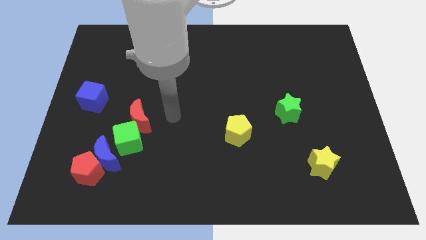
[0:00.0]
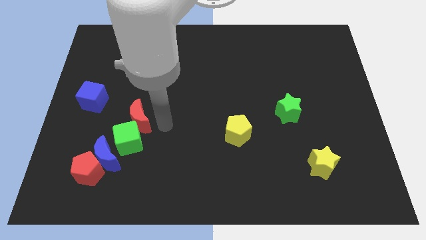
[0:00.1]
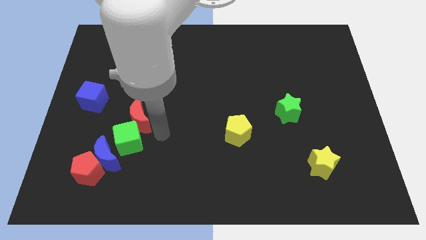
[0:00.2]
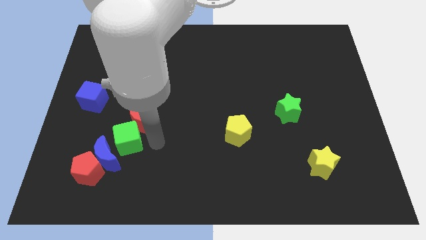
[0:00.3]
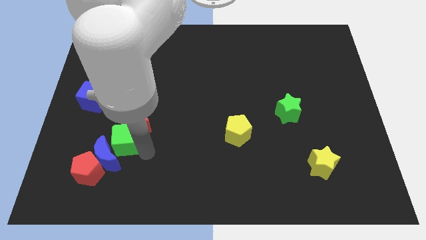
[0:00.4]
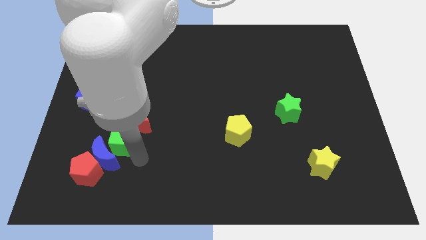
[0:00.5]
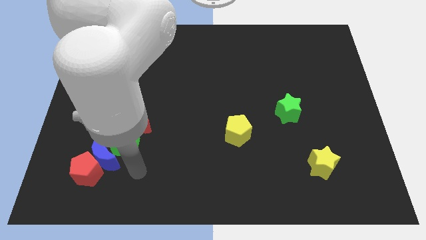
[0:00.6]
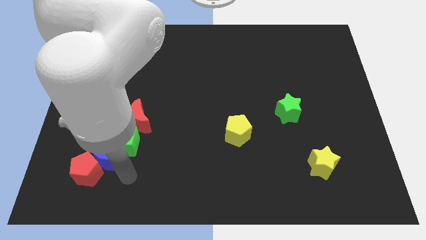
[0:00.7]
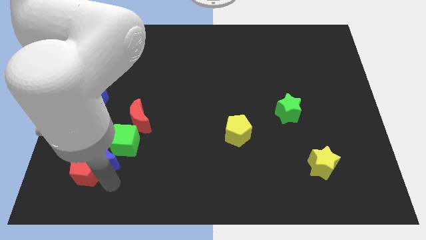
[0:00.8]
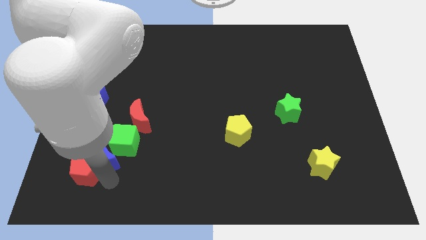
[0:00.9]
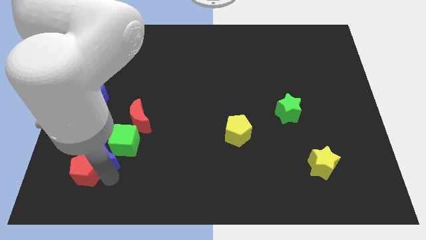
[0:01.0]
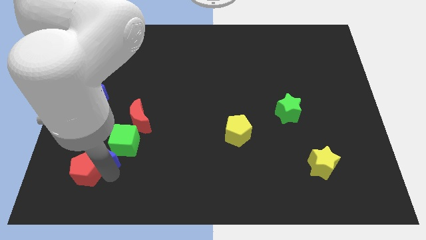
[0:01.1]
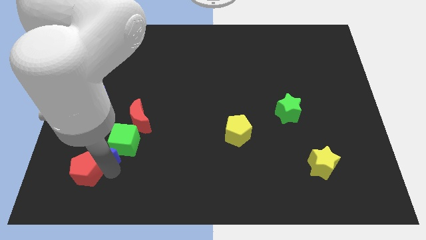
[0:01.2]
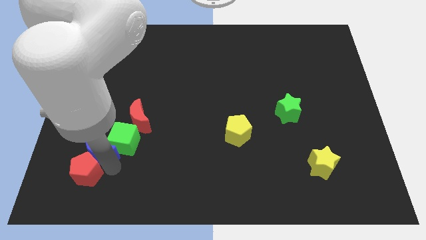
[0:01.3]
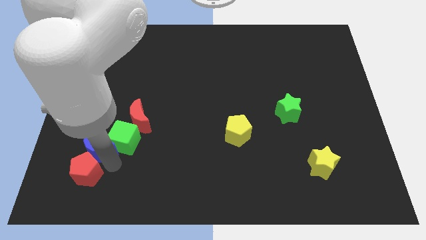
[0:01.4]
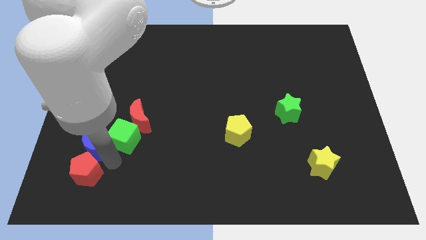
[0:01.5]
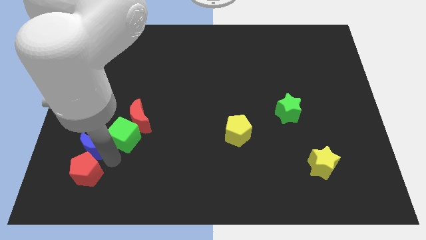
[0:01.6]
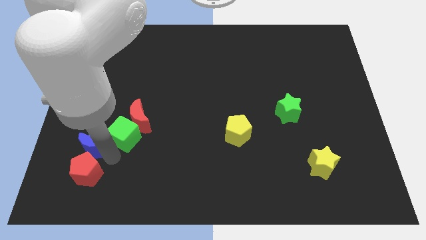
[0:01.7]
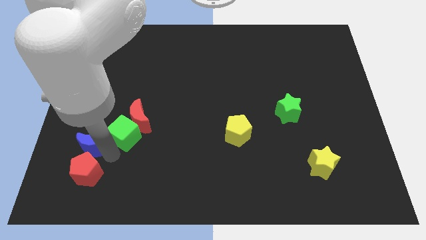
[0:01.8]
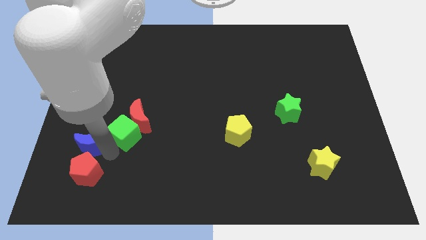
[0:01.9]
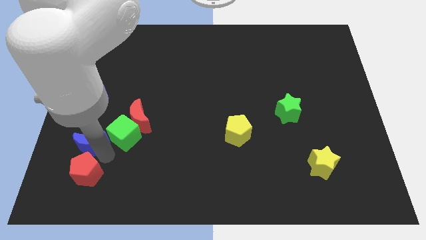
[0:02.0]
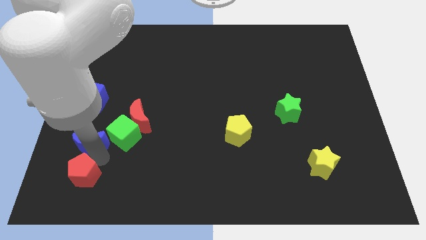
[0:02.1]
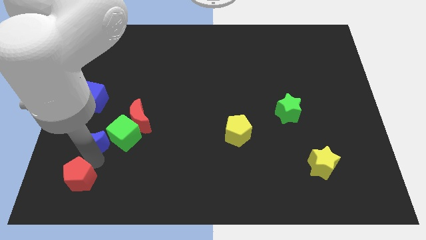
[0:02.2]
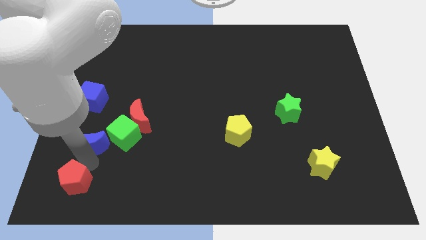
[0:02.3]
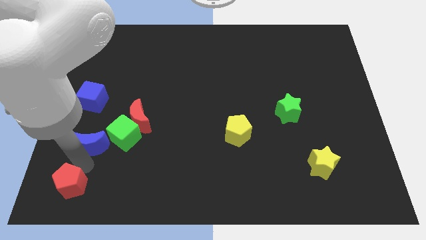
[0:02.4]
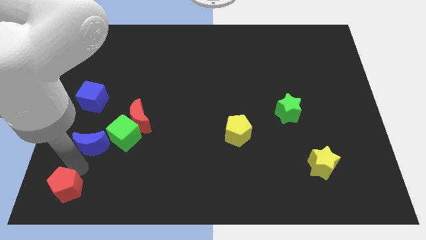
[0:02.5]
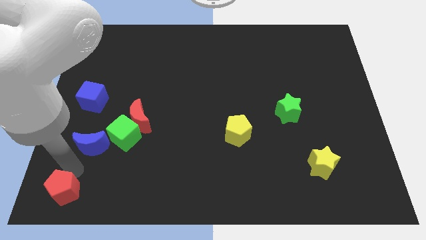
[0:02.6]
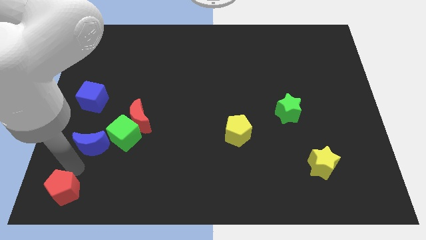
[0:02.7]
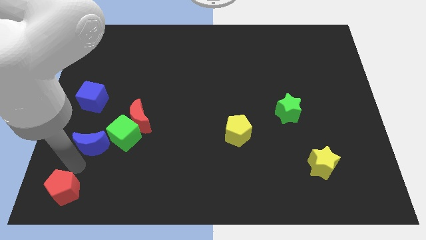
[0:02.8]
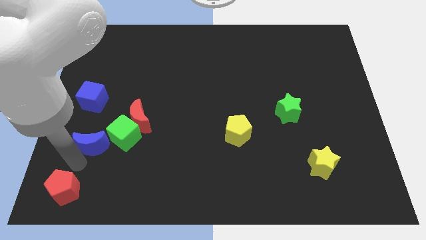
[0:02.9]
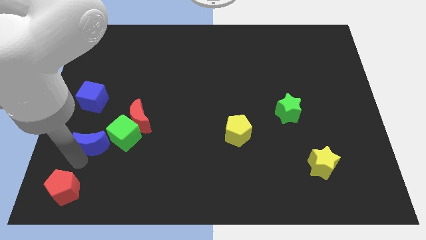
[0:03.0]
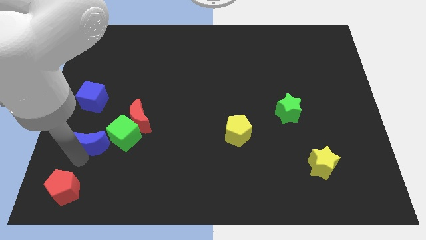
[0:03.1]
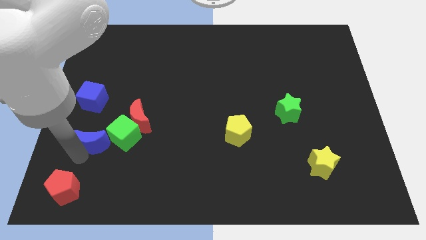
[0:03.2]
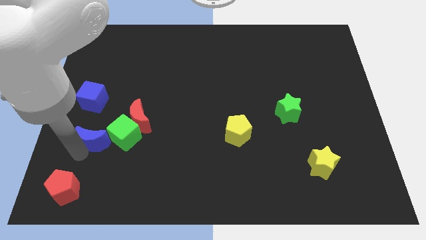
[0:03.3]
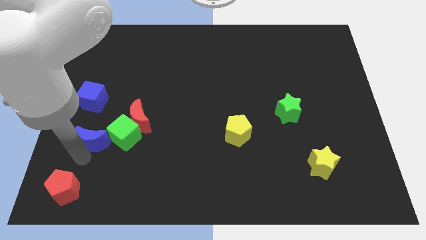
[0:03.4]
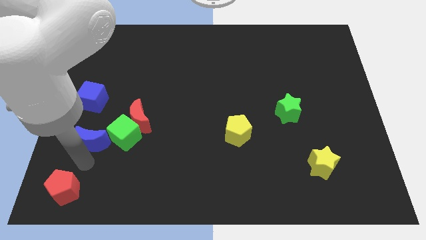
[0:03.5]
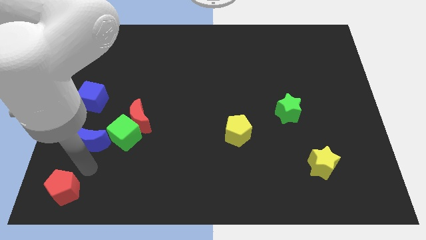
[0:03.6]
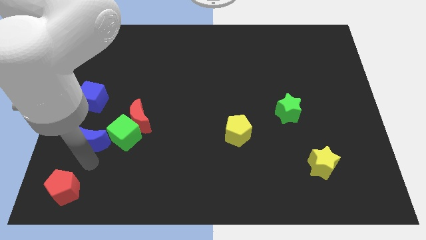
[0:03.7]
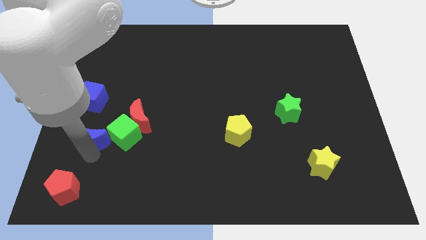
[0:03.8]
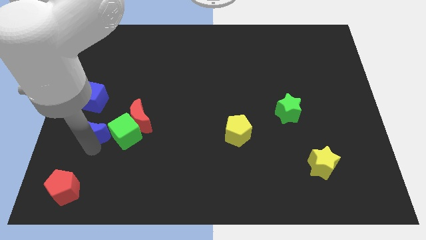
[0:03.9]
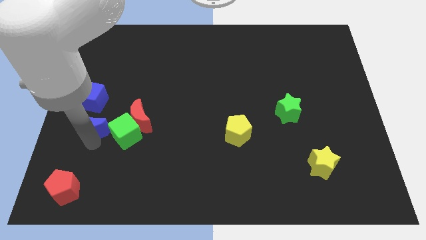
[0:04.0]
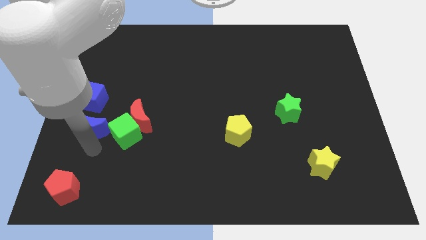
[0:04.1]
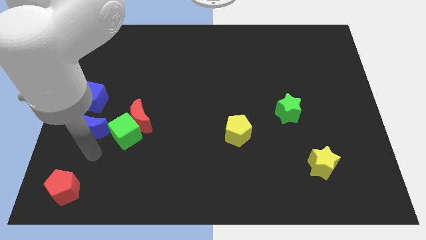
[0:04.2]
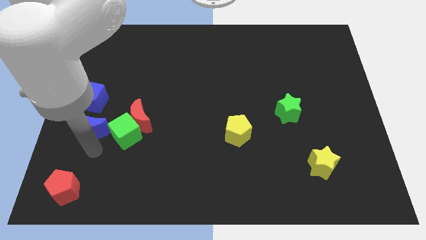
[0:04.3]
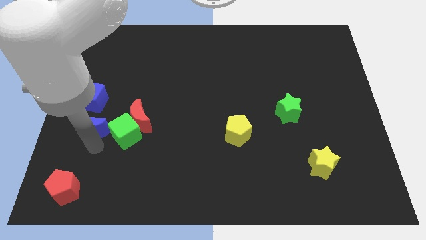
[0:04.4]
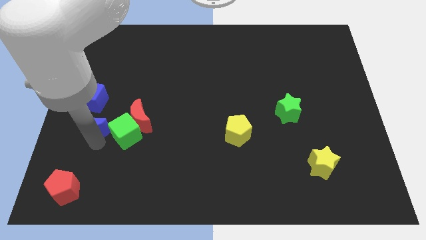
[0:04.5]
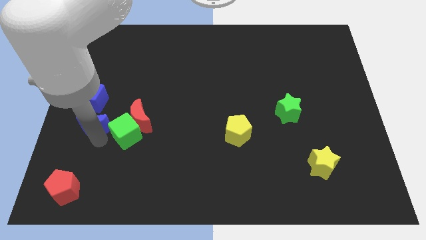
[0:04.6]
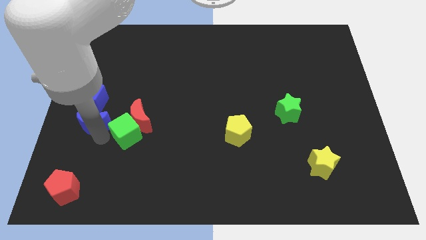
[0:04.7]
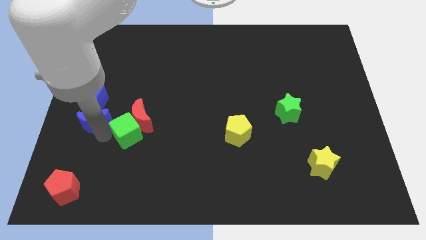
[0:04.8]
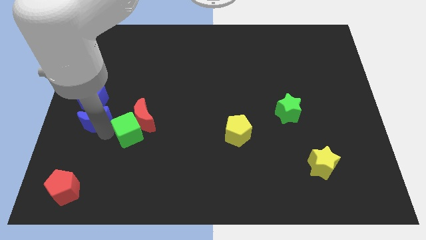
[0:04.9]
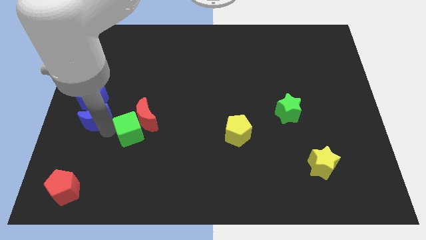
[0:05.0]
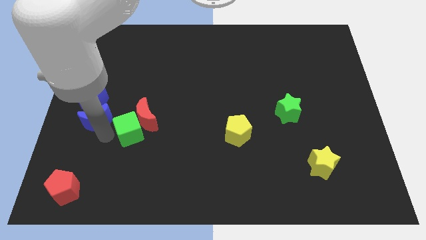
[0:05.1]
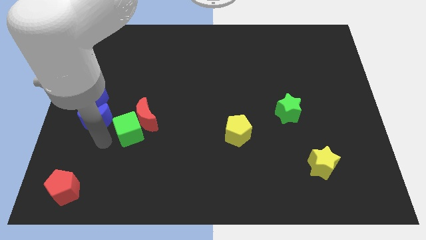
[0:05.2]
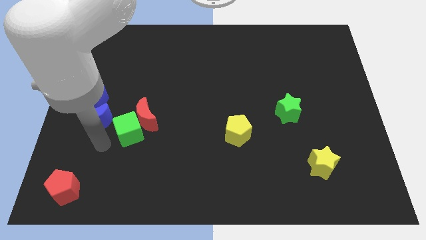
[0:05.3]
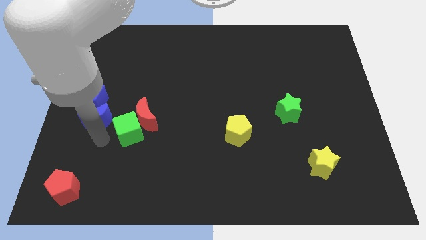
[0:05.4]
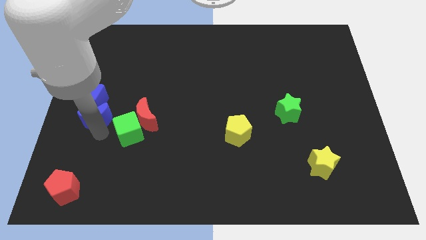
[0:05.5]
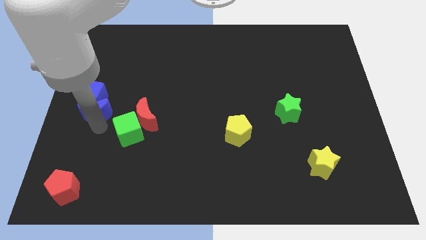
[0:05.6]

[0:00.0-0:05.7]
slide the blue moon close to the blue cube

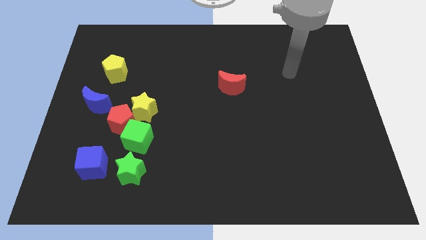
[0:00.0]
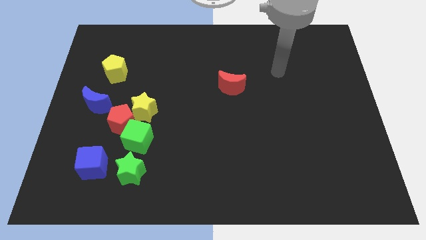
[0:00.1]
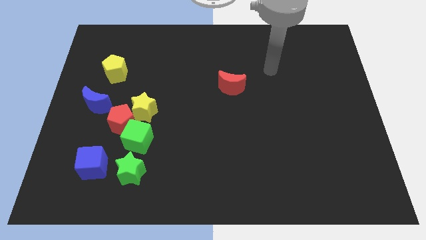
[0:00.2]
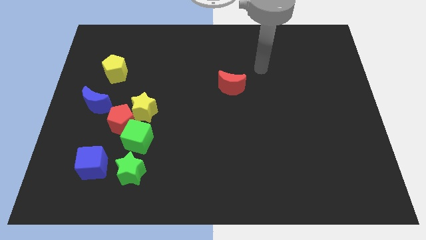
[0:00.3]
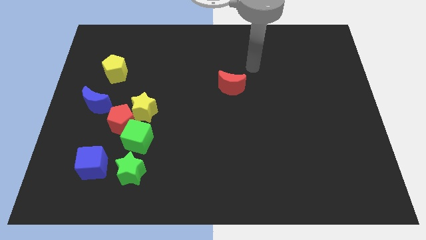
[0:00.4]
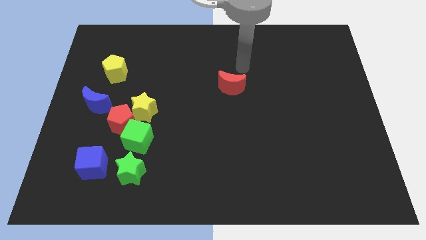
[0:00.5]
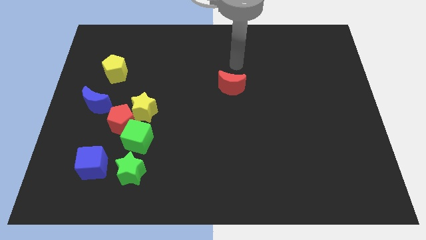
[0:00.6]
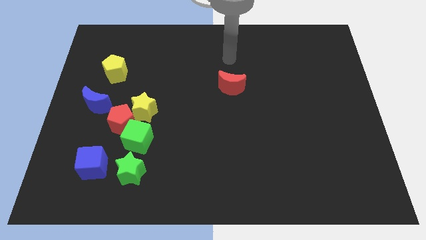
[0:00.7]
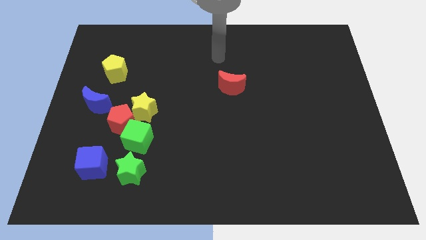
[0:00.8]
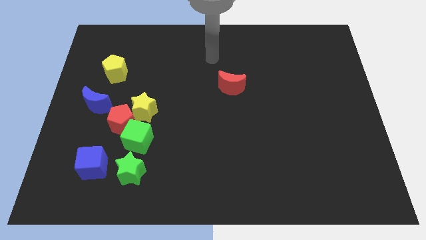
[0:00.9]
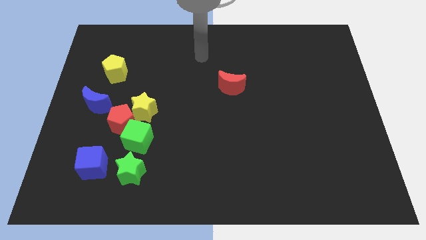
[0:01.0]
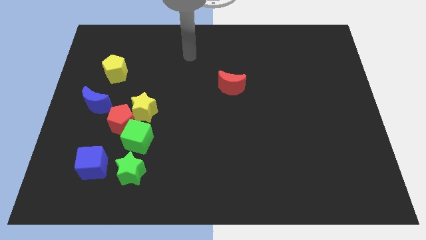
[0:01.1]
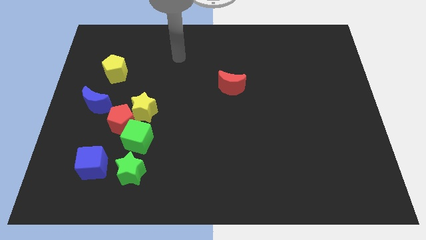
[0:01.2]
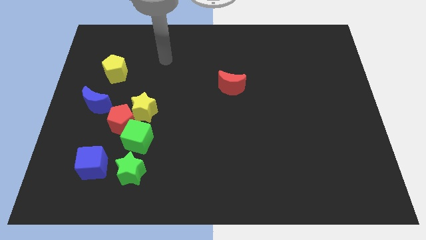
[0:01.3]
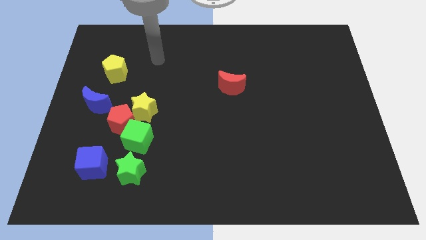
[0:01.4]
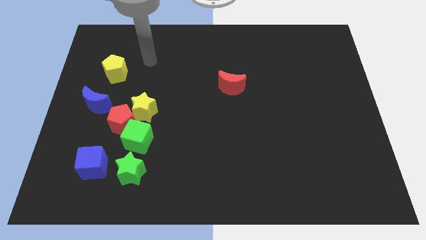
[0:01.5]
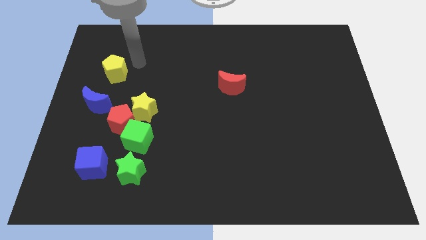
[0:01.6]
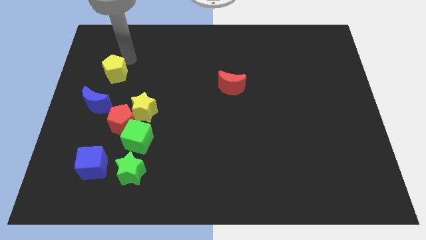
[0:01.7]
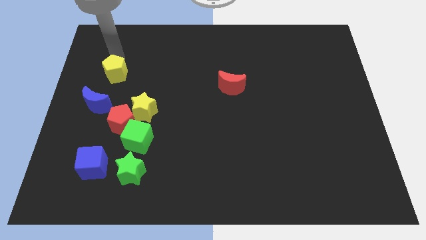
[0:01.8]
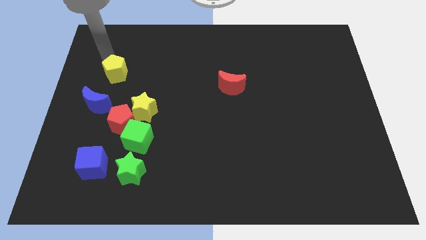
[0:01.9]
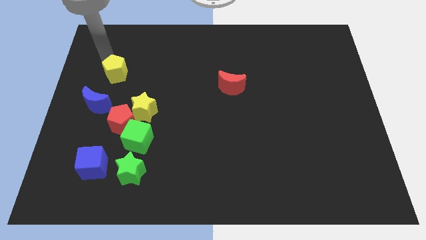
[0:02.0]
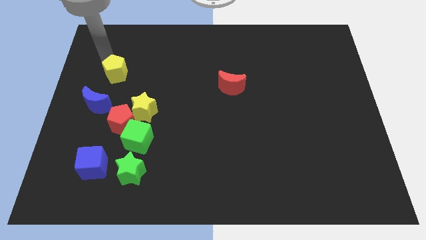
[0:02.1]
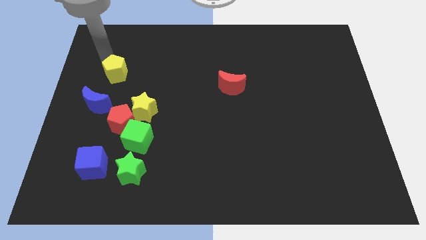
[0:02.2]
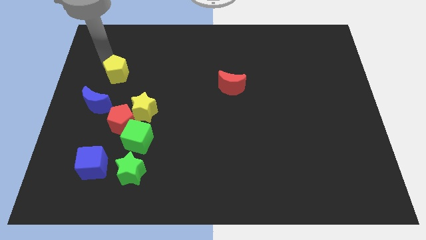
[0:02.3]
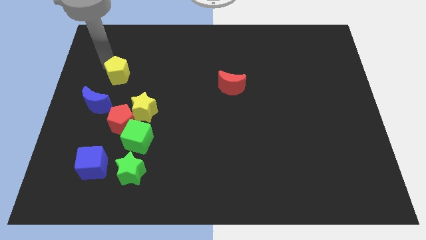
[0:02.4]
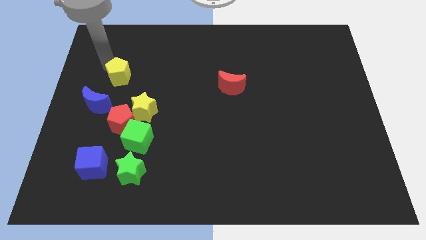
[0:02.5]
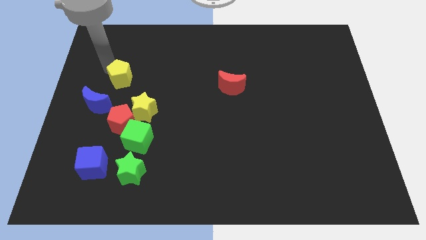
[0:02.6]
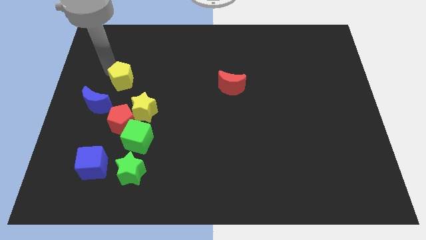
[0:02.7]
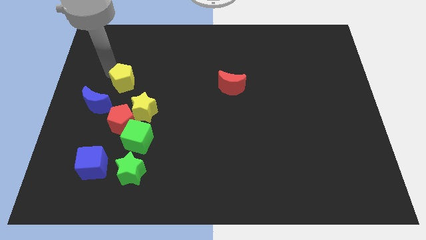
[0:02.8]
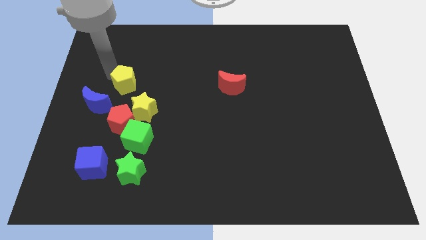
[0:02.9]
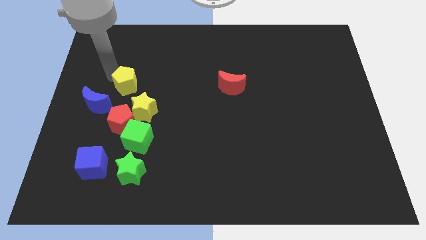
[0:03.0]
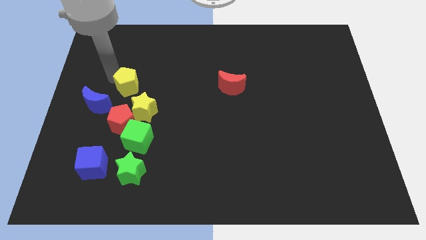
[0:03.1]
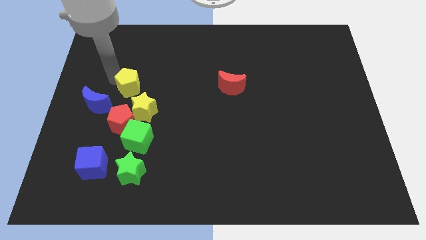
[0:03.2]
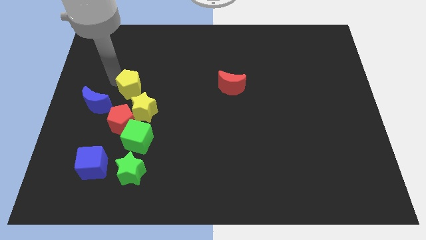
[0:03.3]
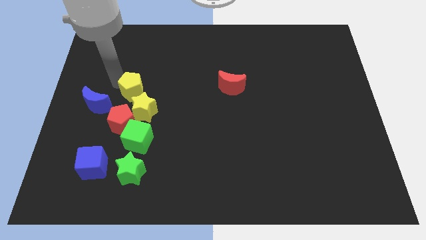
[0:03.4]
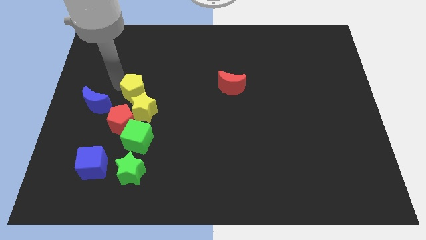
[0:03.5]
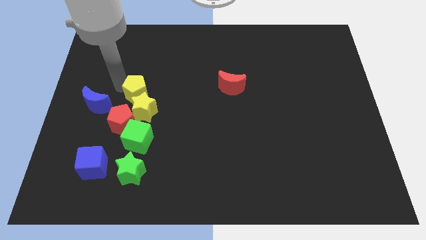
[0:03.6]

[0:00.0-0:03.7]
put the yellow pentagon towards the yellow star
